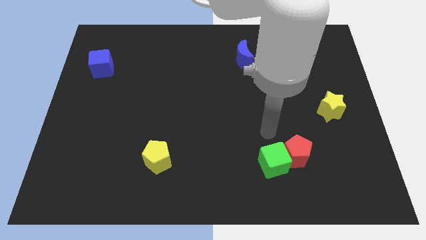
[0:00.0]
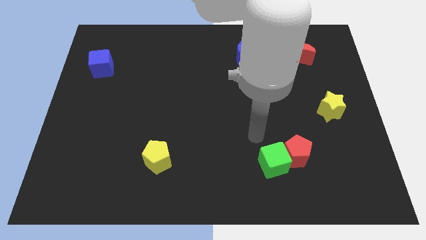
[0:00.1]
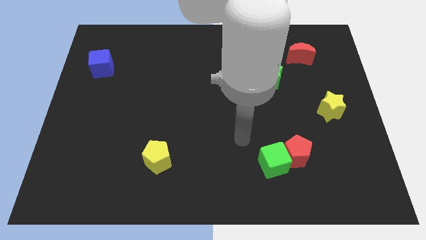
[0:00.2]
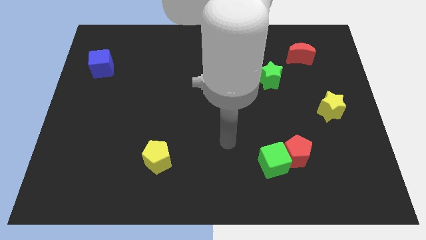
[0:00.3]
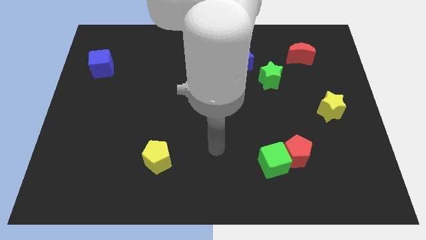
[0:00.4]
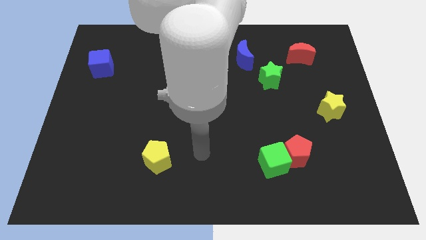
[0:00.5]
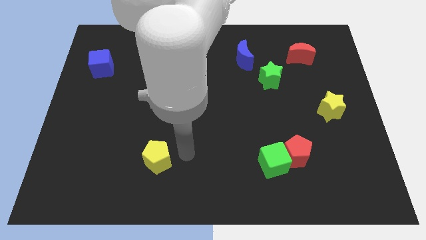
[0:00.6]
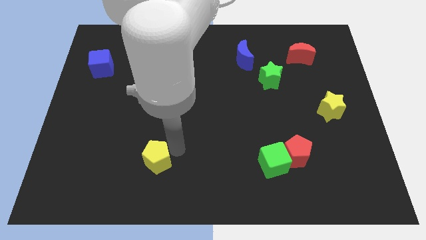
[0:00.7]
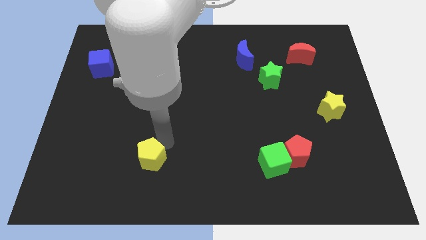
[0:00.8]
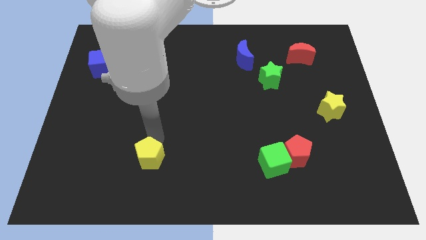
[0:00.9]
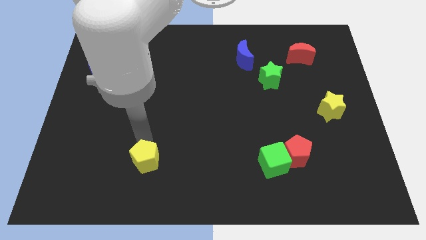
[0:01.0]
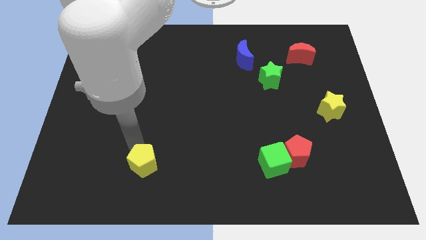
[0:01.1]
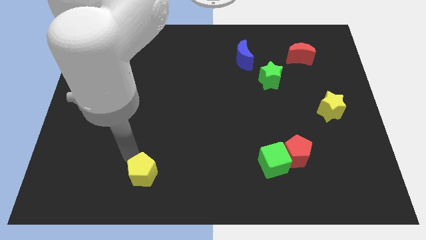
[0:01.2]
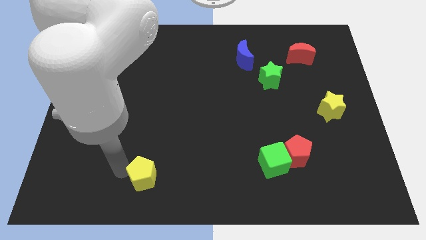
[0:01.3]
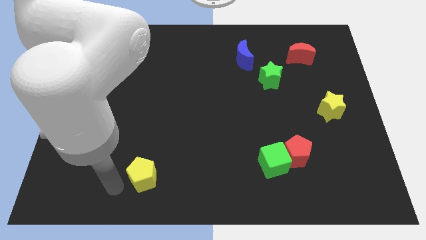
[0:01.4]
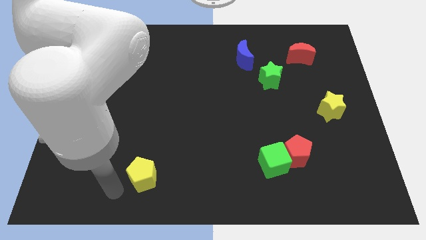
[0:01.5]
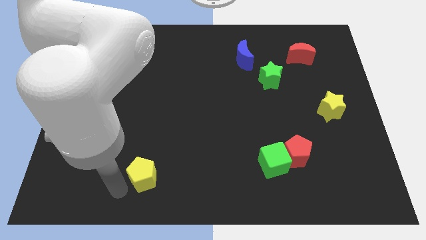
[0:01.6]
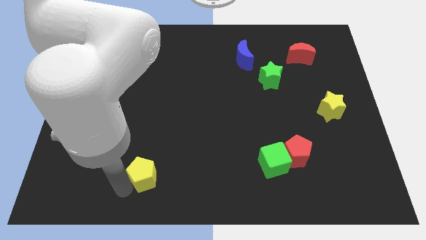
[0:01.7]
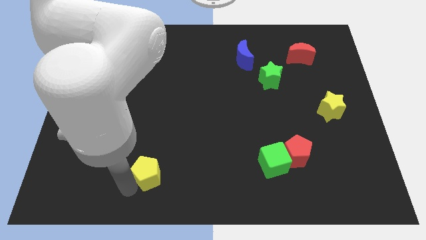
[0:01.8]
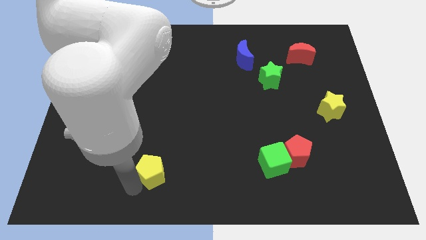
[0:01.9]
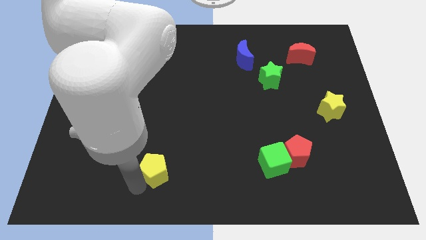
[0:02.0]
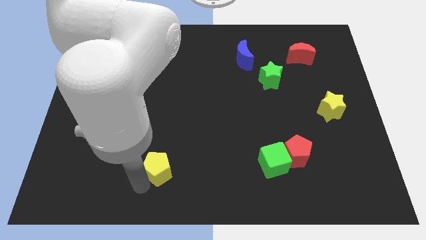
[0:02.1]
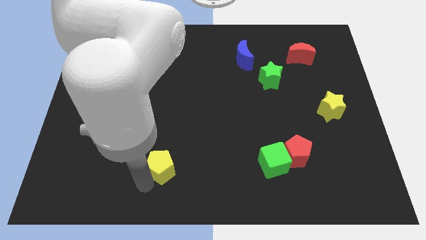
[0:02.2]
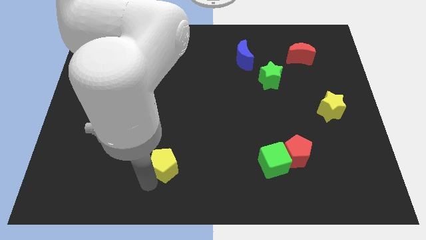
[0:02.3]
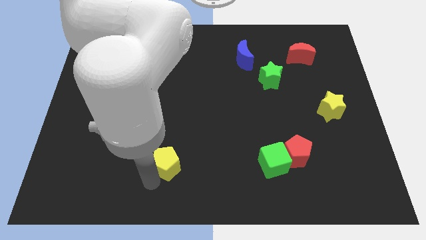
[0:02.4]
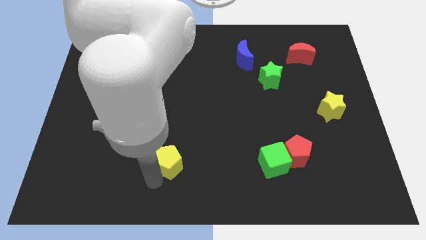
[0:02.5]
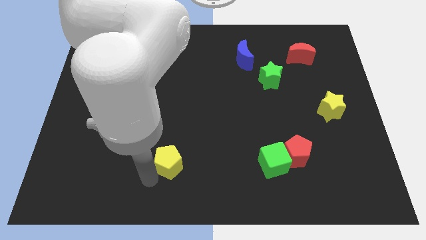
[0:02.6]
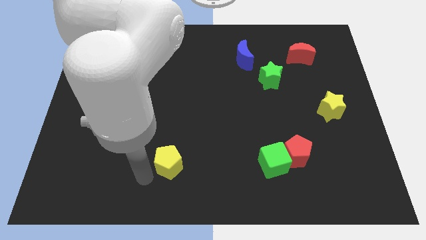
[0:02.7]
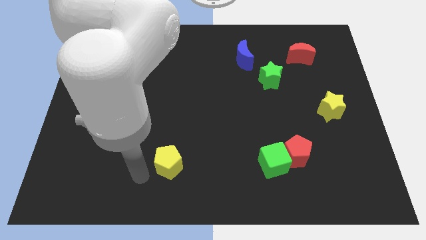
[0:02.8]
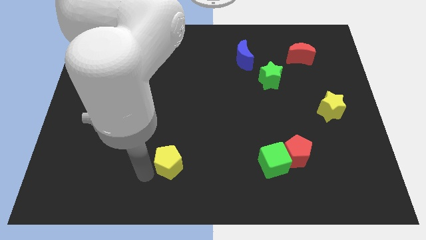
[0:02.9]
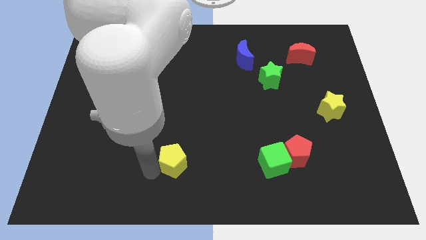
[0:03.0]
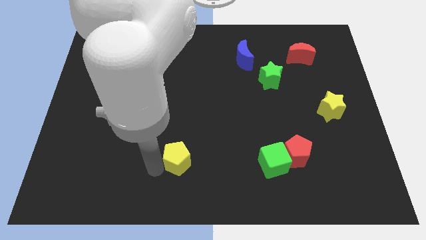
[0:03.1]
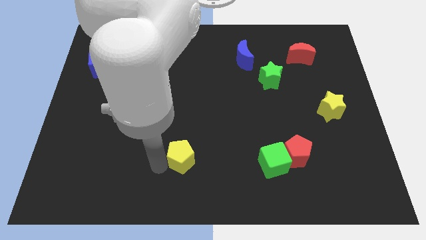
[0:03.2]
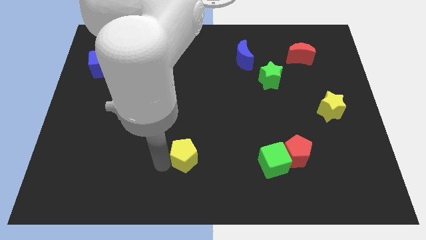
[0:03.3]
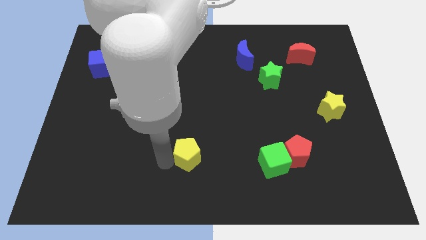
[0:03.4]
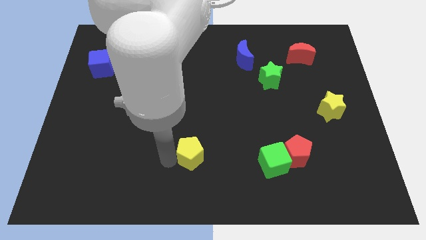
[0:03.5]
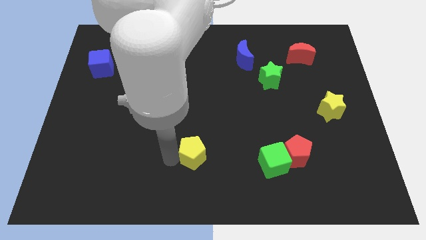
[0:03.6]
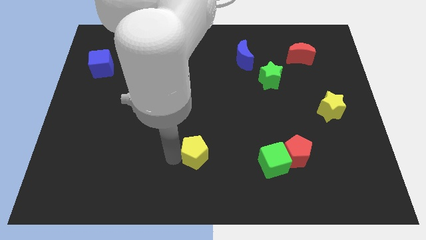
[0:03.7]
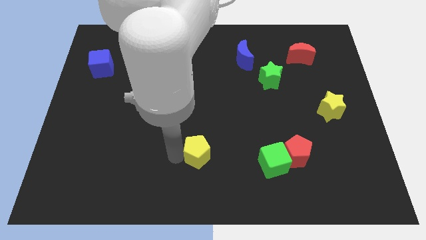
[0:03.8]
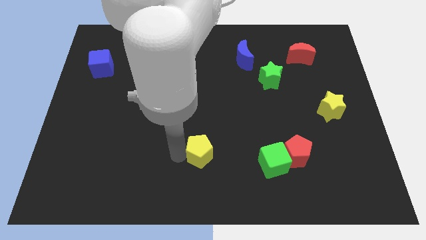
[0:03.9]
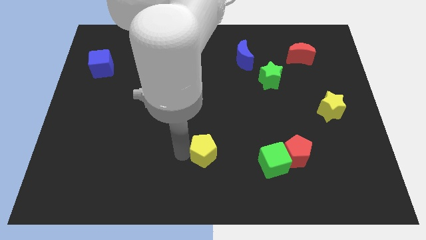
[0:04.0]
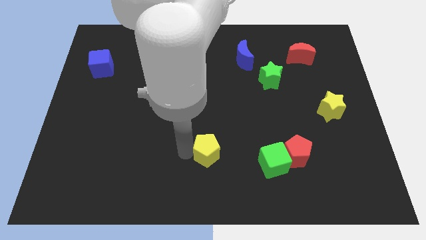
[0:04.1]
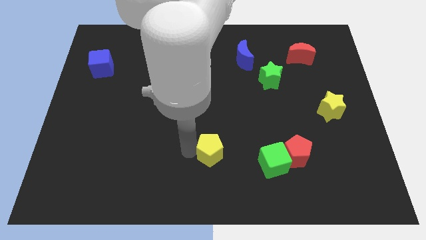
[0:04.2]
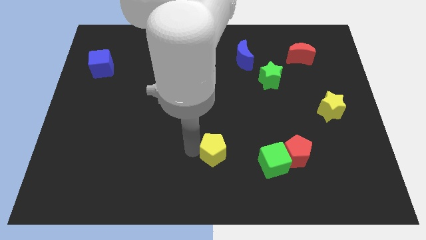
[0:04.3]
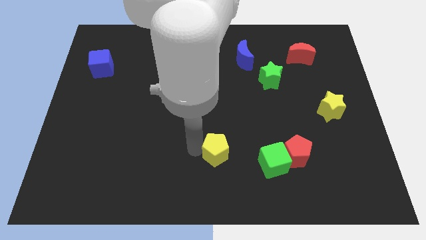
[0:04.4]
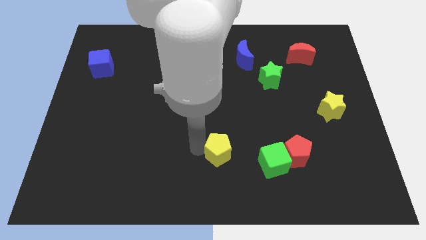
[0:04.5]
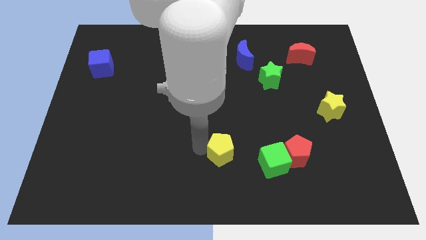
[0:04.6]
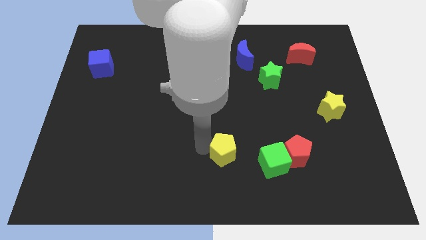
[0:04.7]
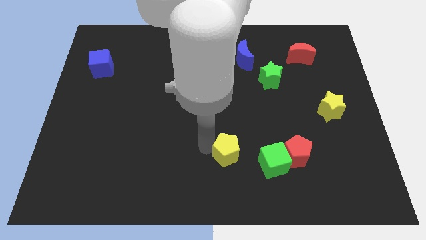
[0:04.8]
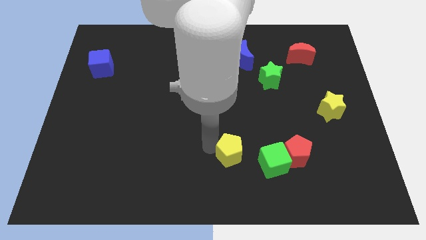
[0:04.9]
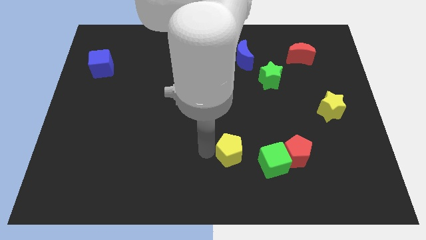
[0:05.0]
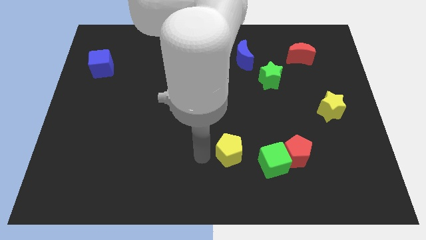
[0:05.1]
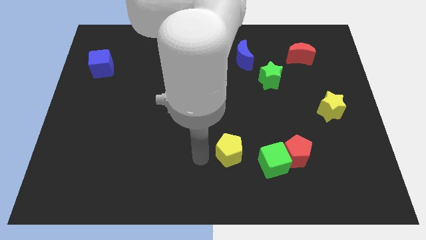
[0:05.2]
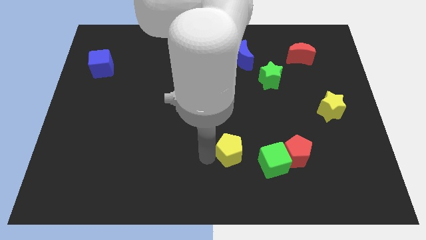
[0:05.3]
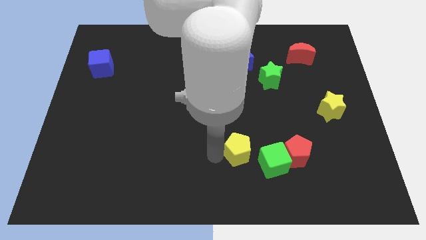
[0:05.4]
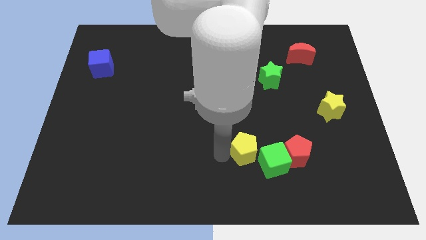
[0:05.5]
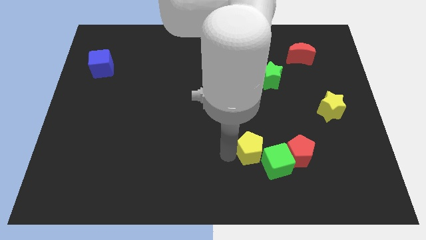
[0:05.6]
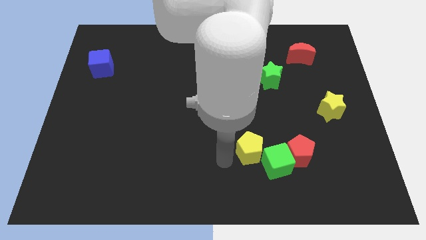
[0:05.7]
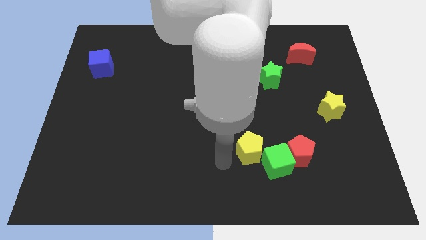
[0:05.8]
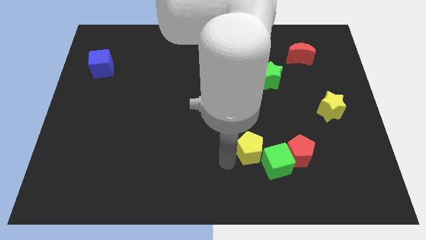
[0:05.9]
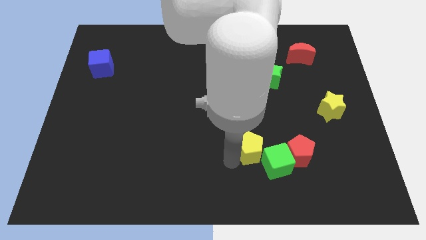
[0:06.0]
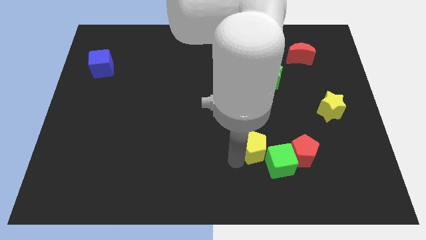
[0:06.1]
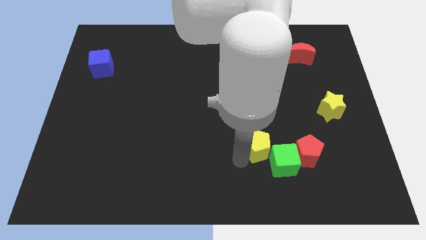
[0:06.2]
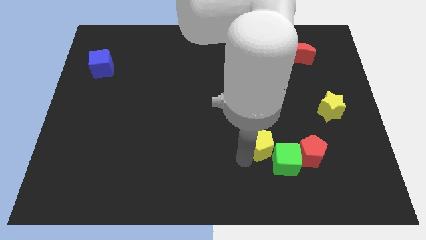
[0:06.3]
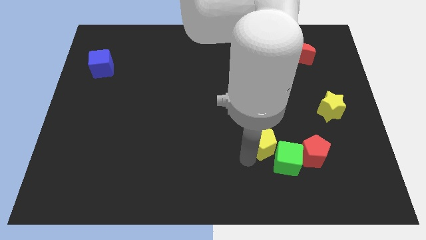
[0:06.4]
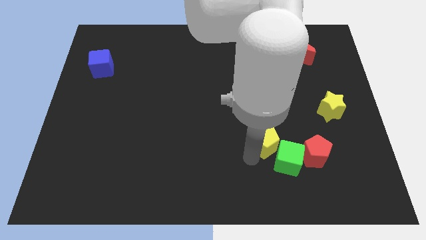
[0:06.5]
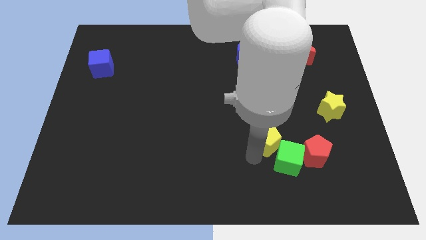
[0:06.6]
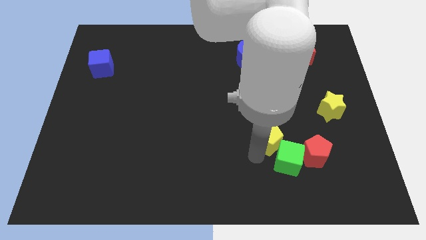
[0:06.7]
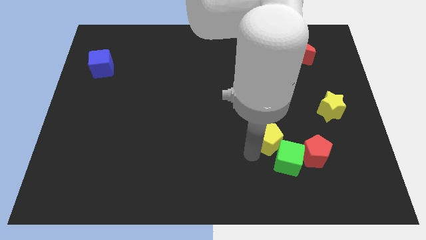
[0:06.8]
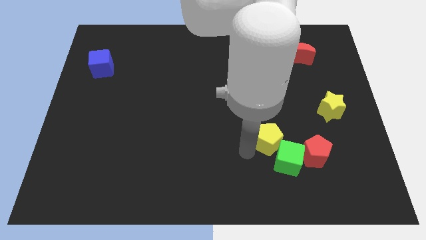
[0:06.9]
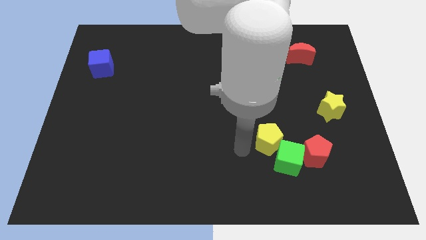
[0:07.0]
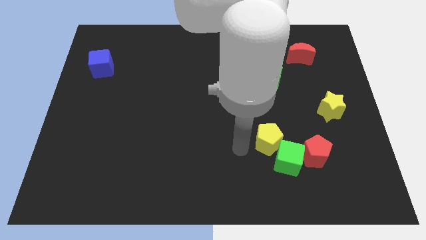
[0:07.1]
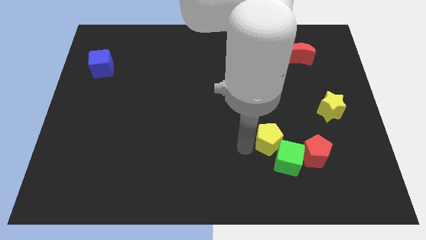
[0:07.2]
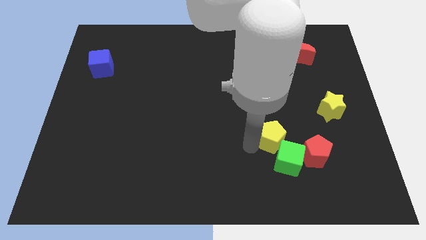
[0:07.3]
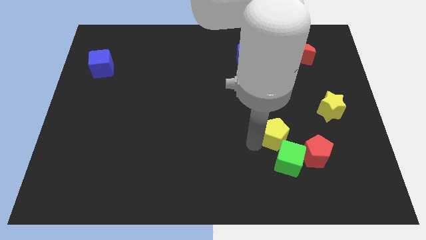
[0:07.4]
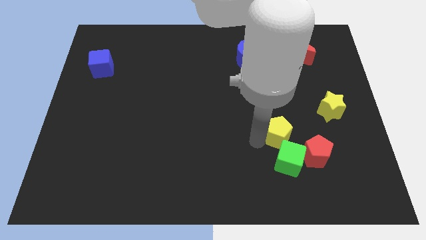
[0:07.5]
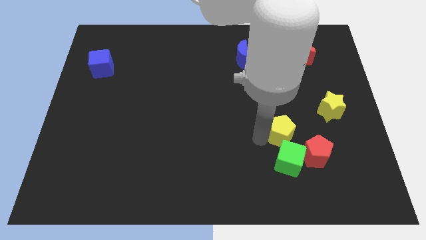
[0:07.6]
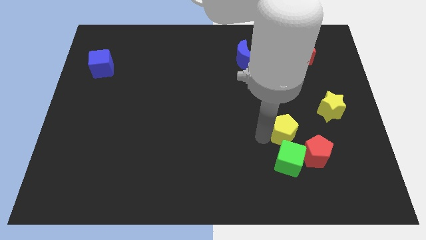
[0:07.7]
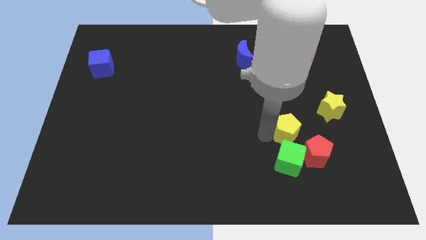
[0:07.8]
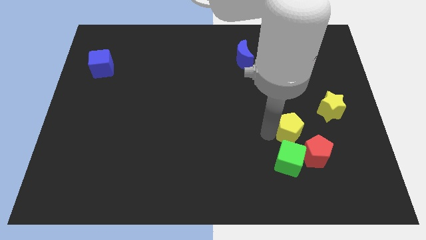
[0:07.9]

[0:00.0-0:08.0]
push the yellow pentagon diagonally down and to the left of the yellow star
